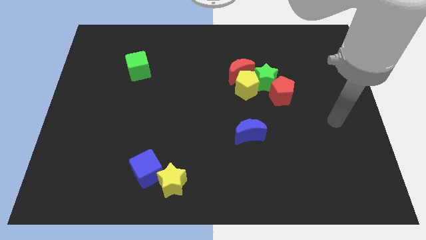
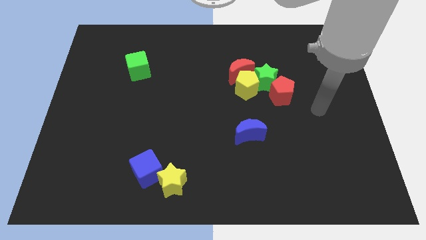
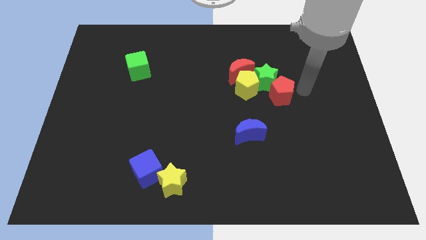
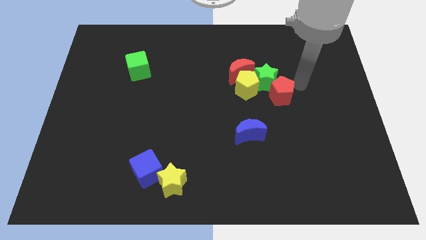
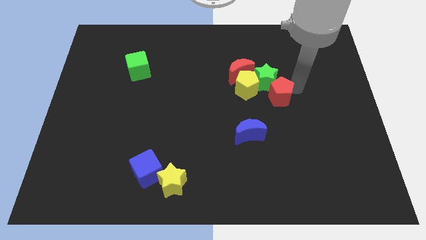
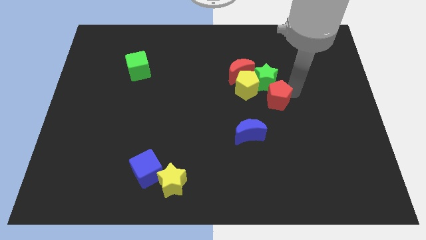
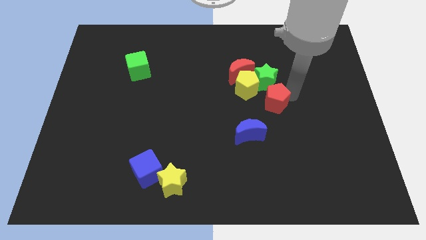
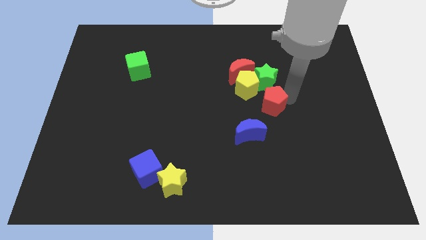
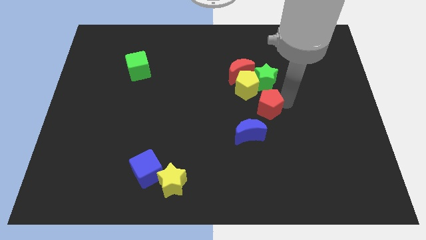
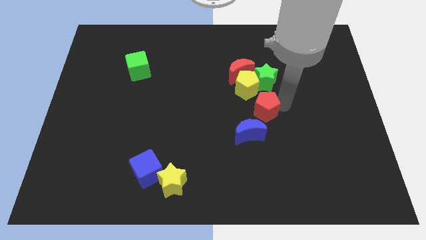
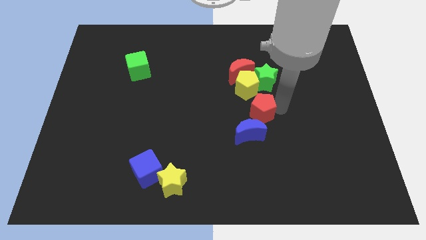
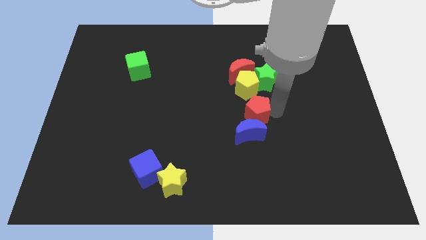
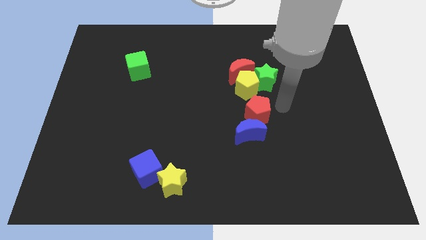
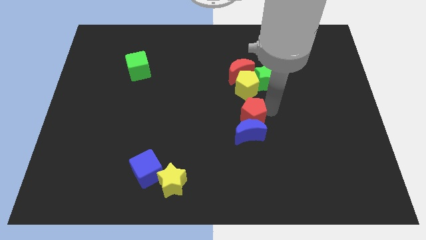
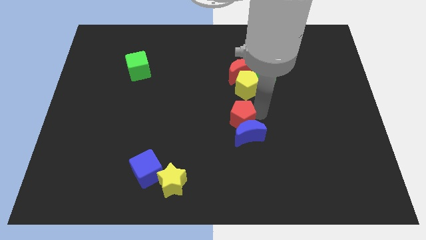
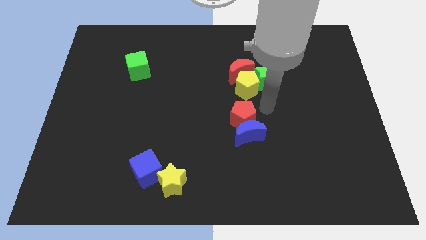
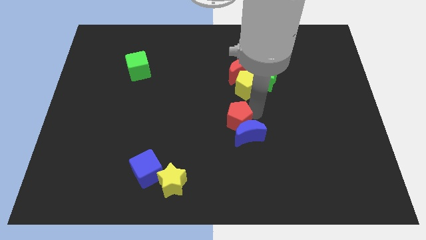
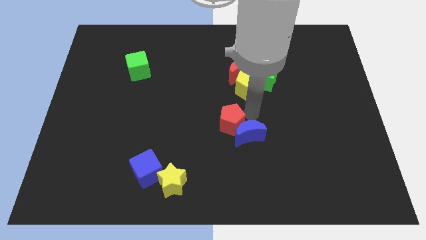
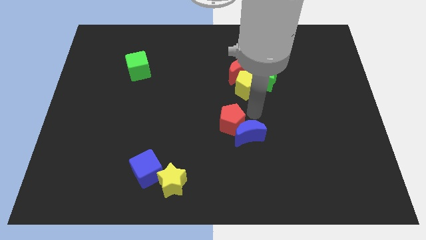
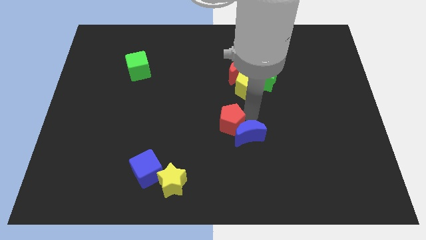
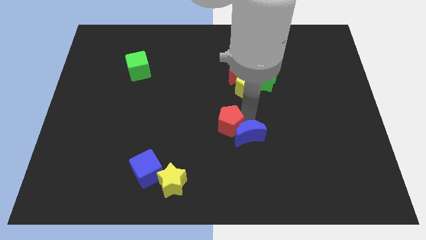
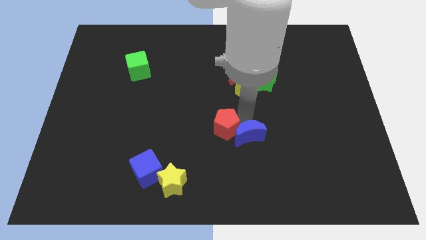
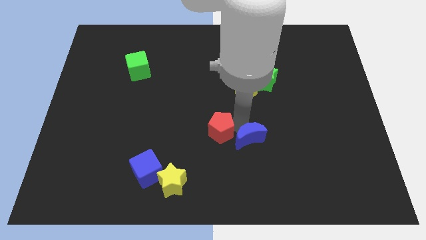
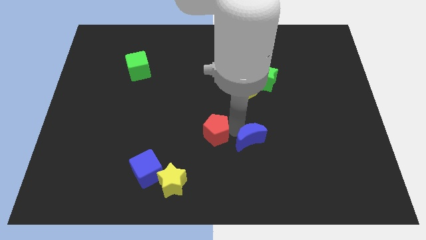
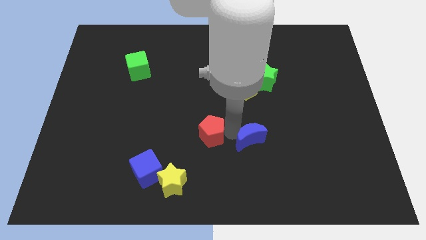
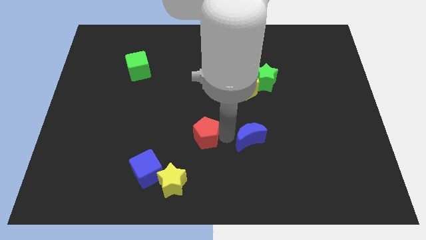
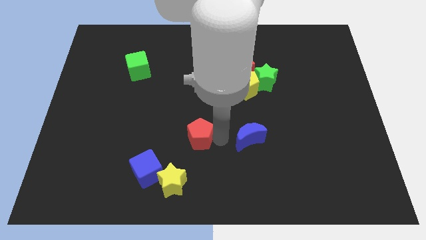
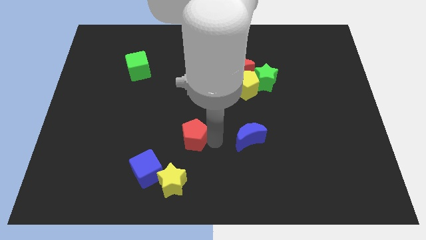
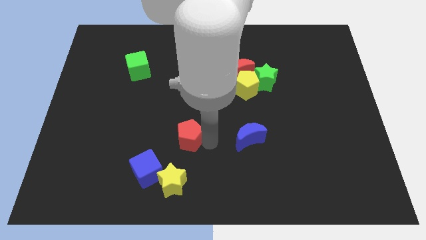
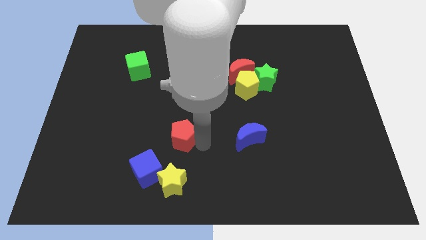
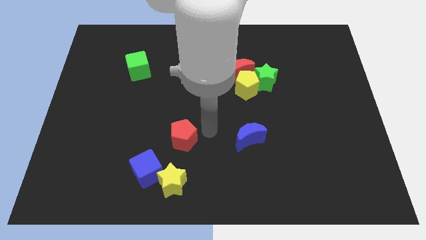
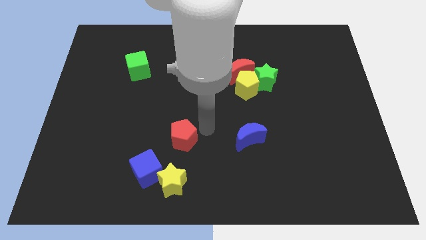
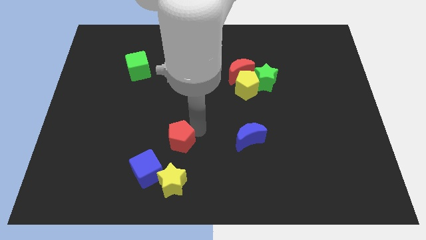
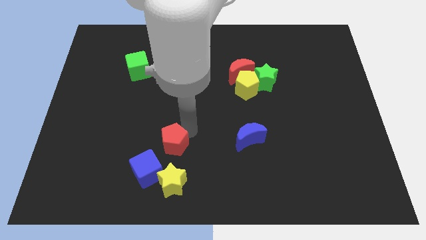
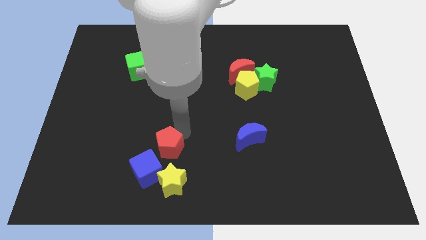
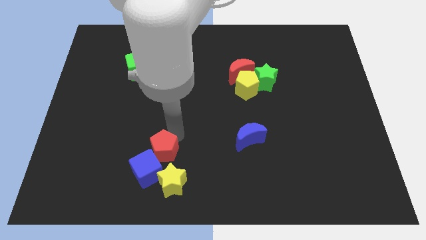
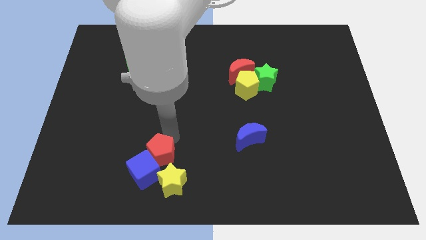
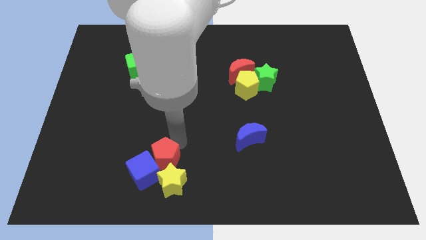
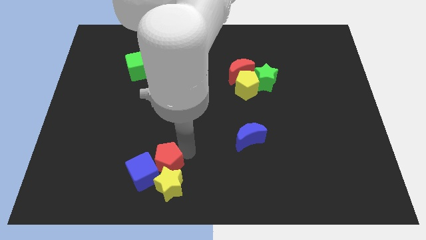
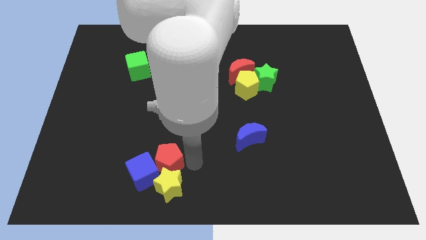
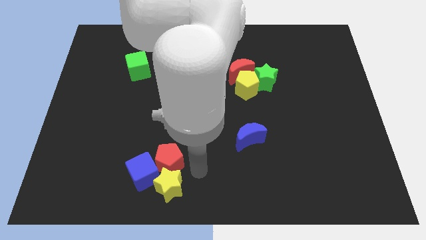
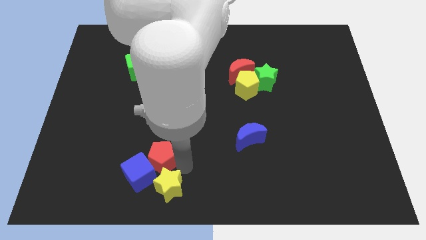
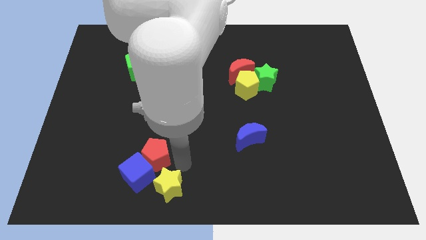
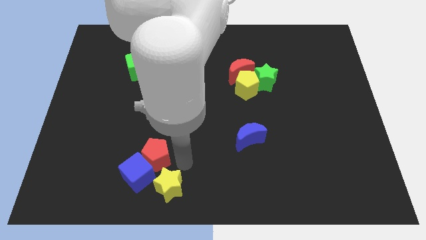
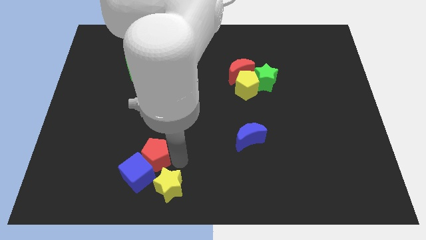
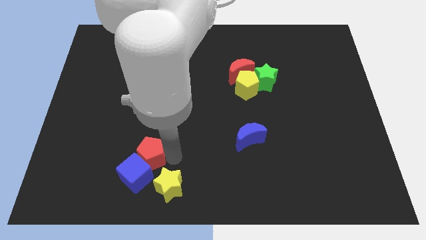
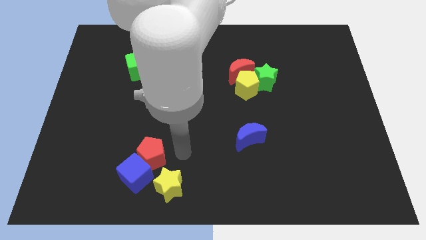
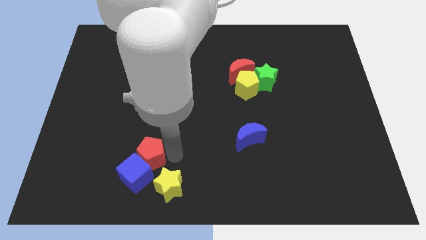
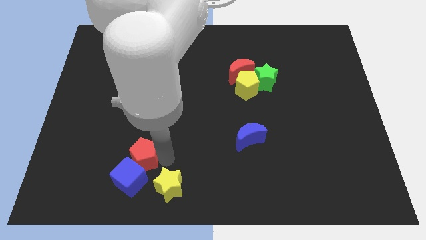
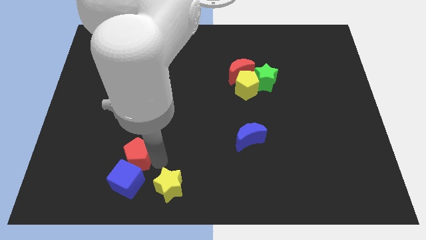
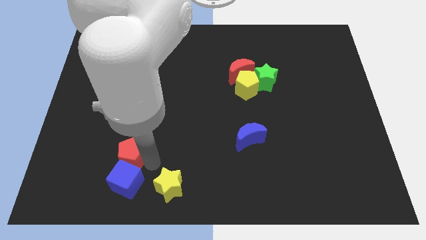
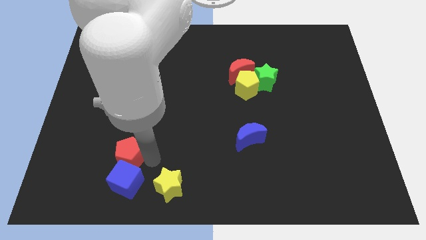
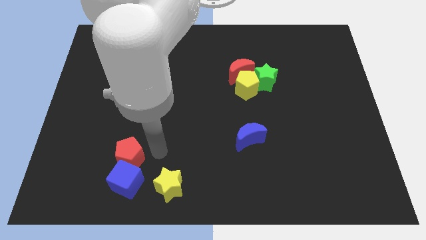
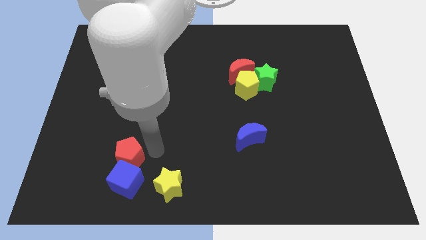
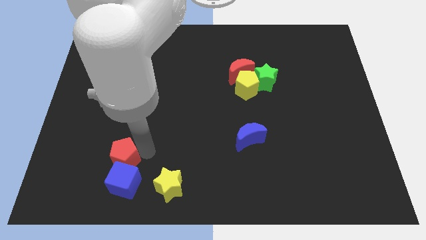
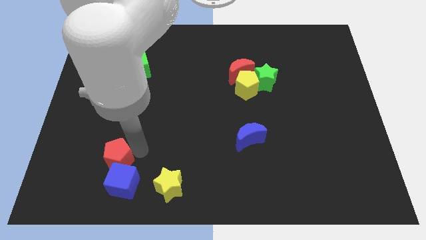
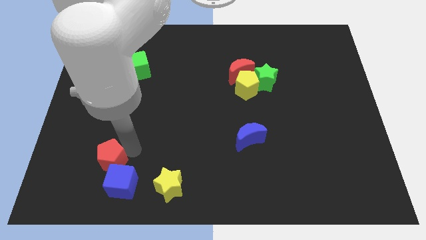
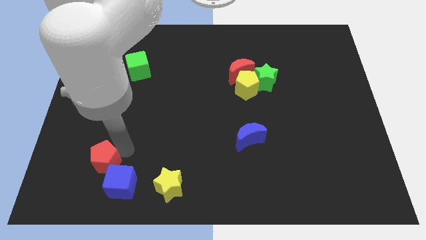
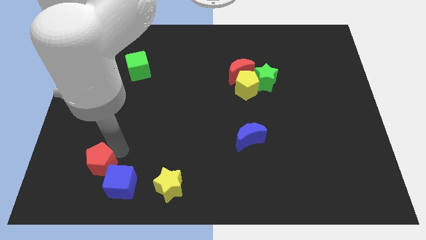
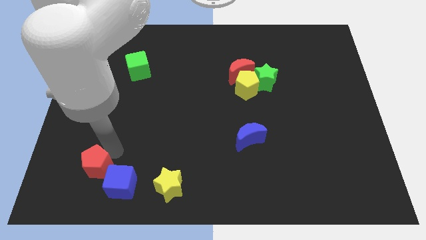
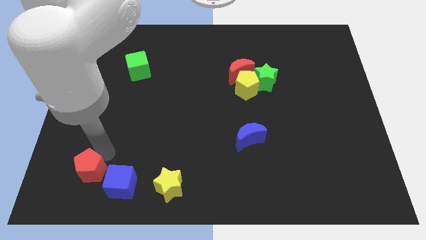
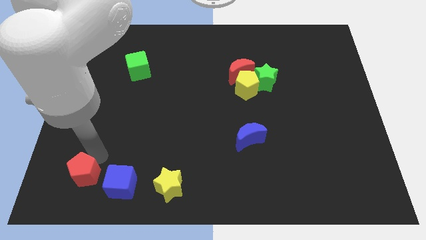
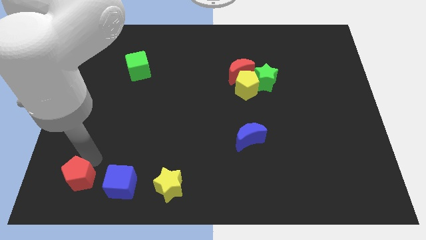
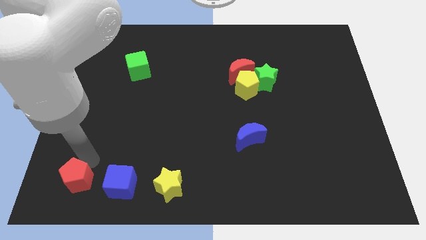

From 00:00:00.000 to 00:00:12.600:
move the red pentagon to the lower left corner
